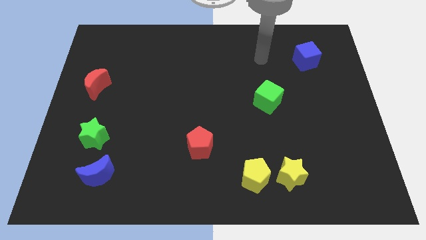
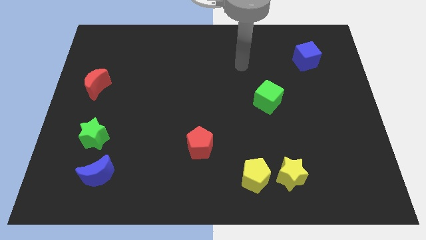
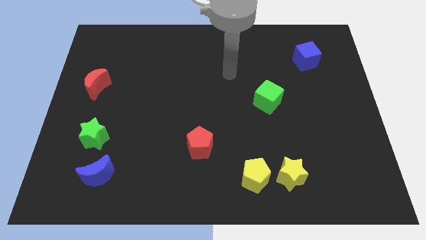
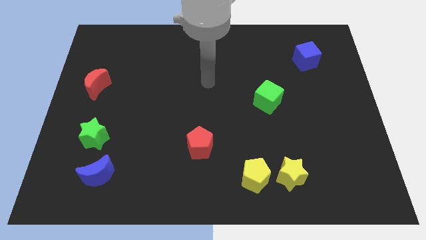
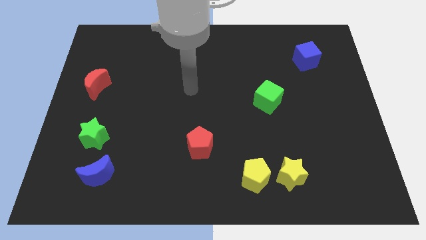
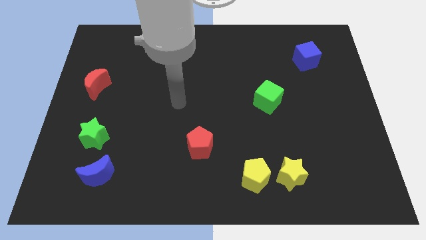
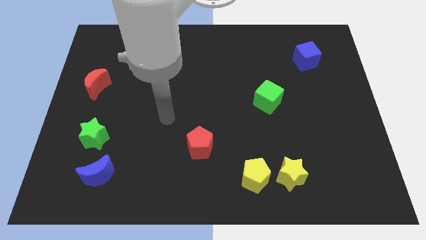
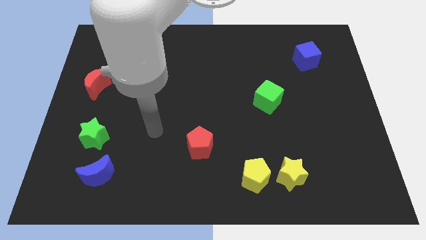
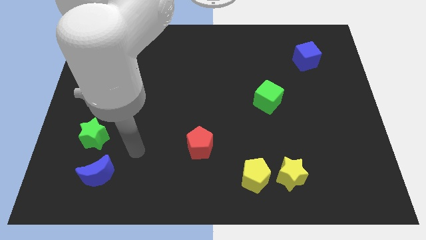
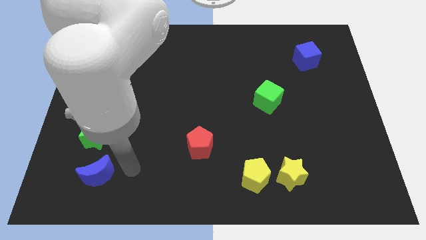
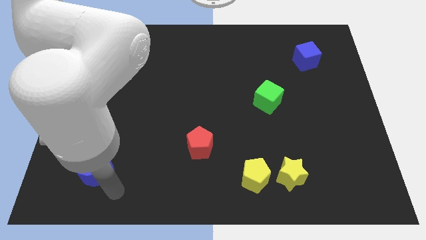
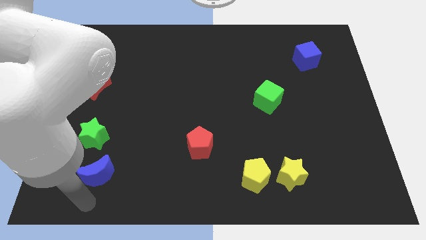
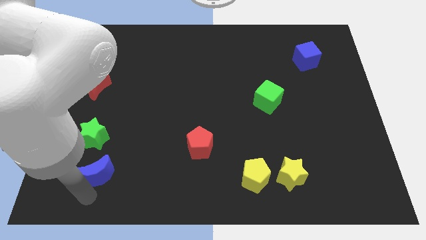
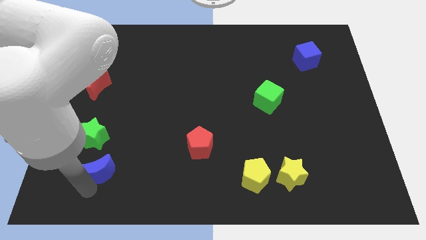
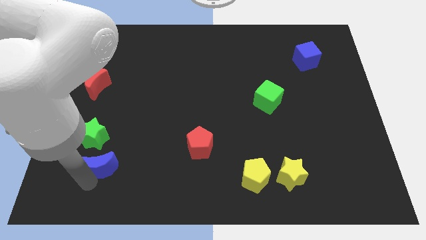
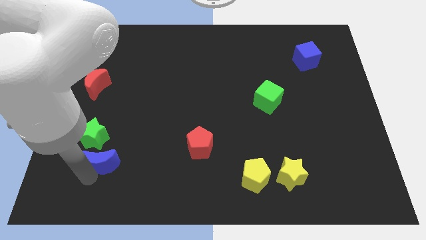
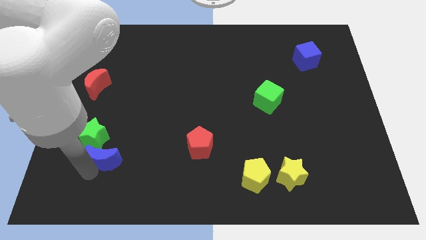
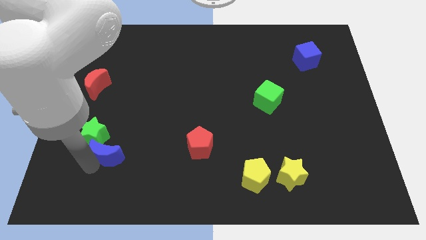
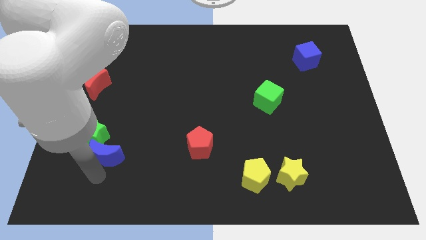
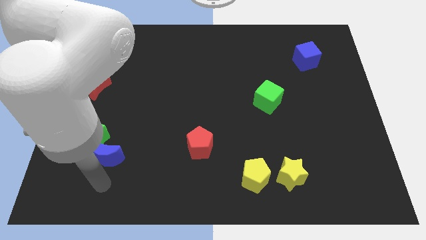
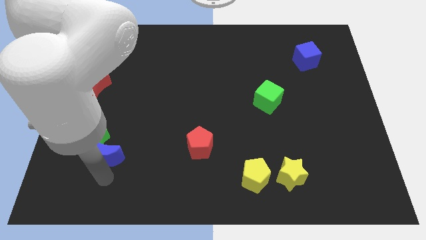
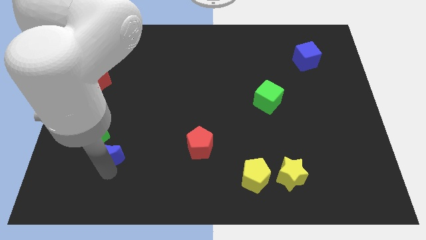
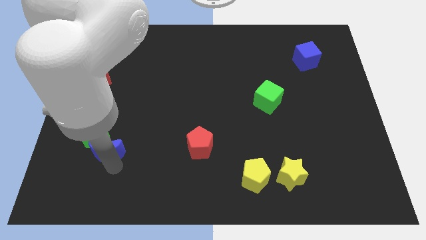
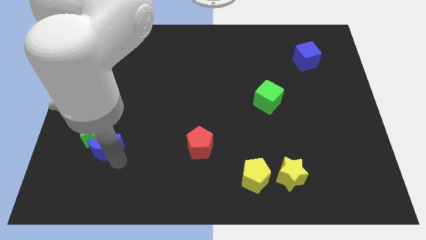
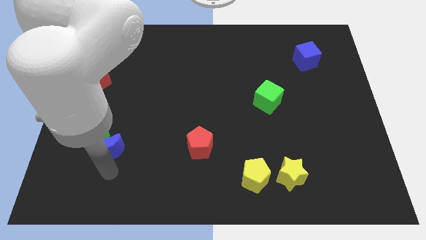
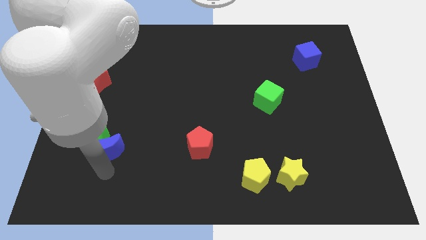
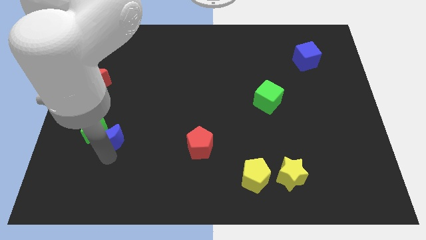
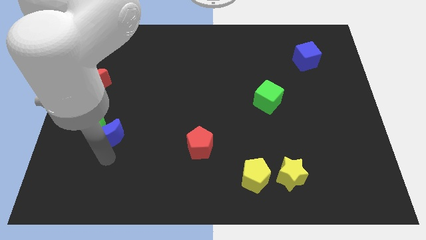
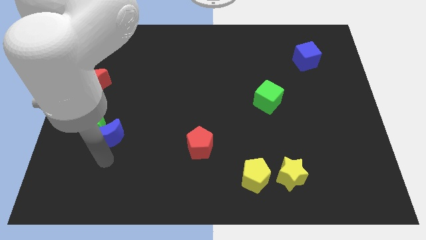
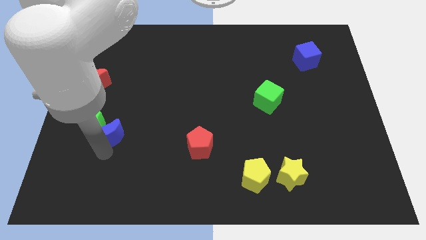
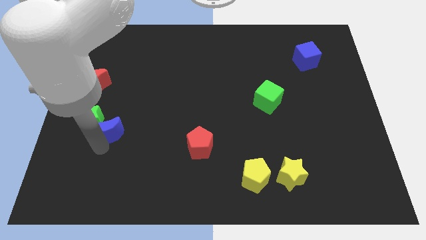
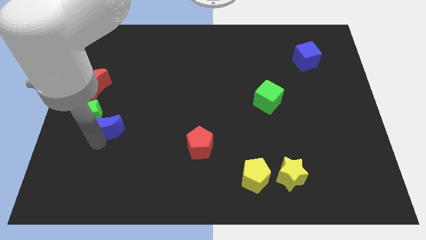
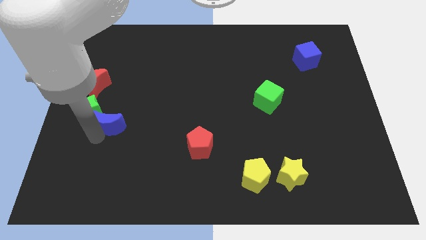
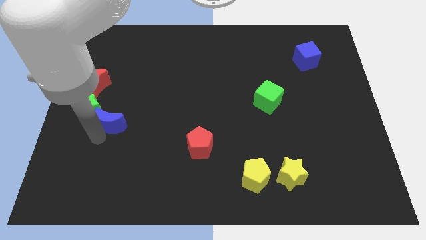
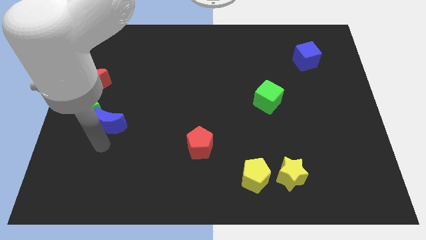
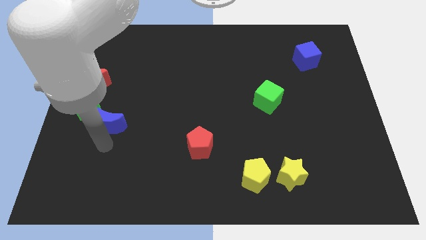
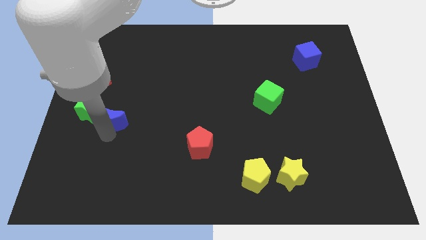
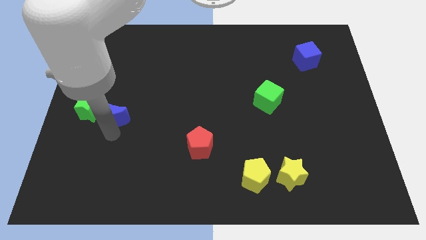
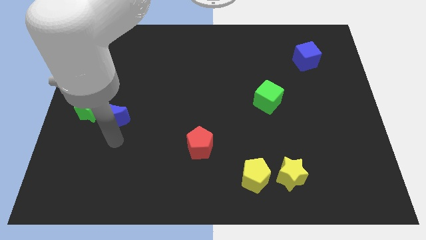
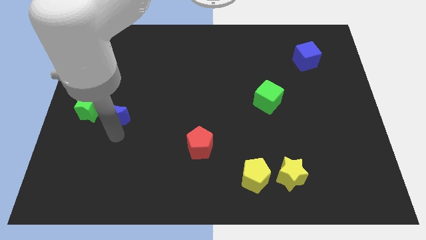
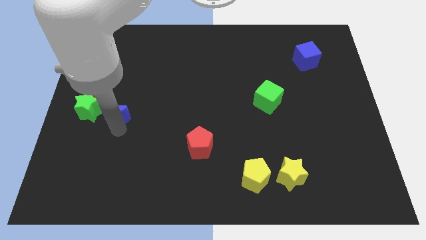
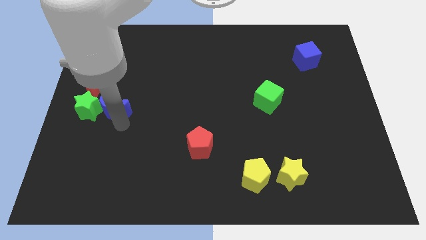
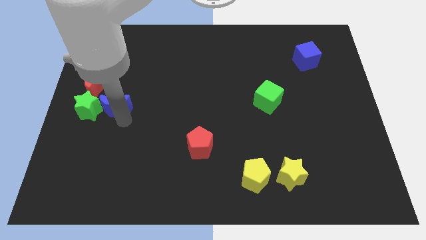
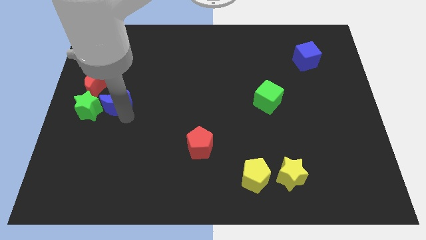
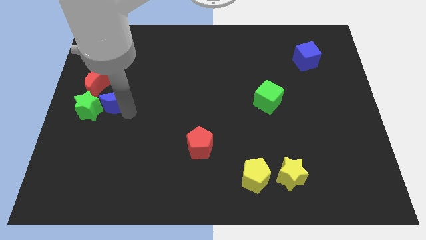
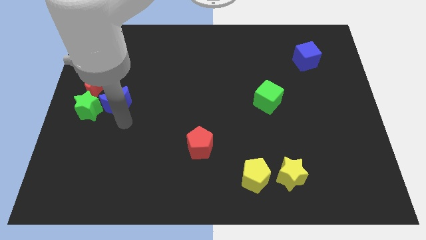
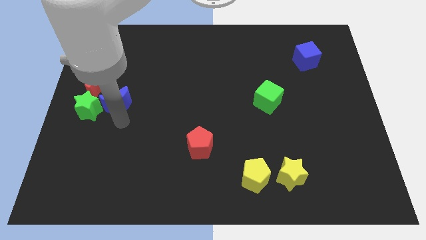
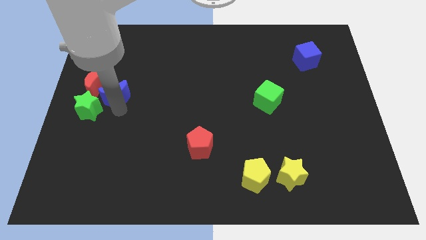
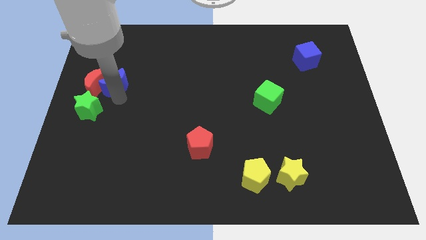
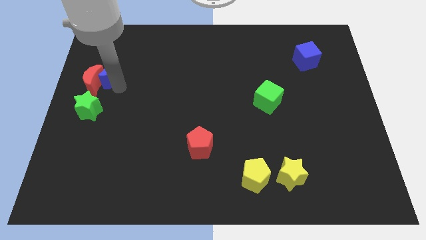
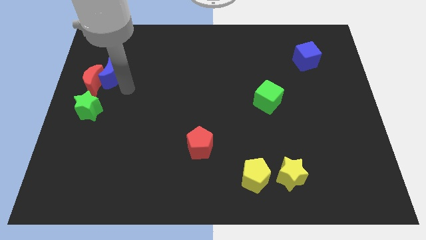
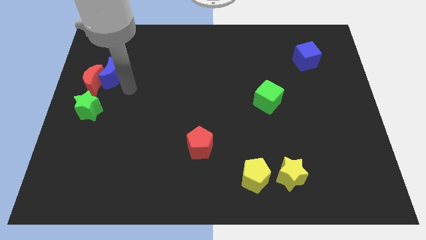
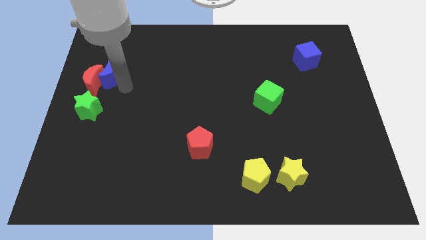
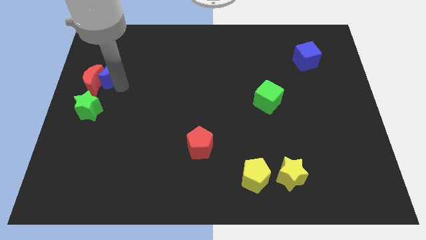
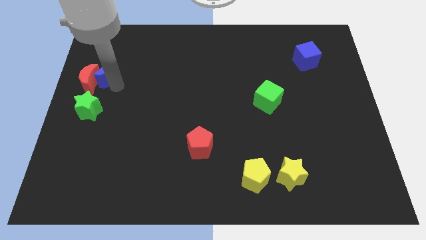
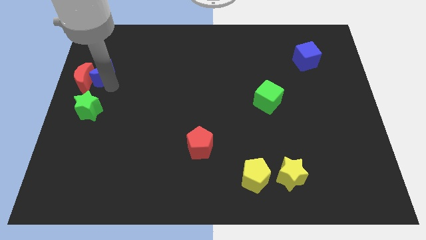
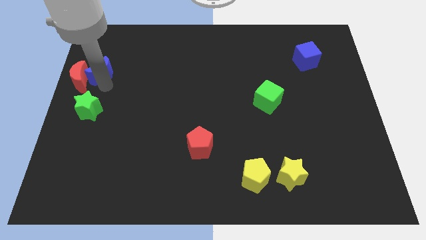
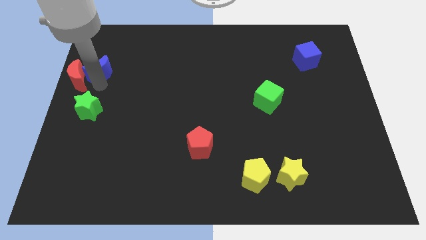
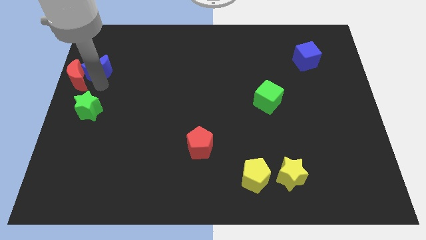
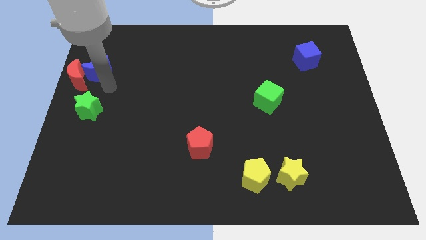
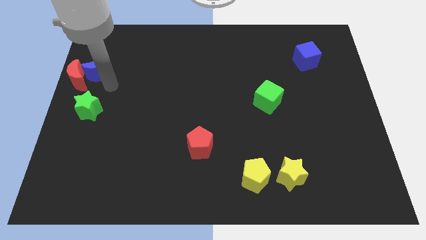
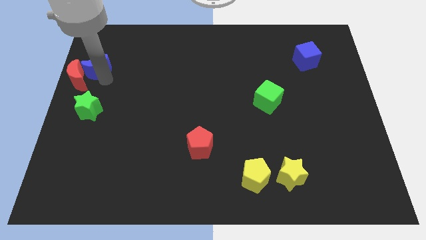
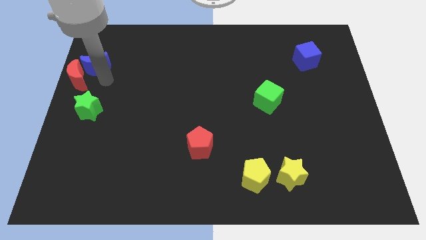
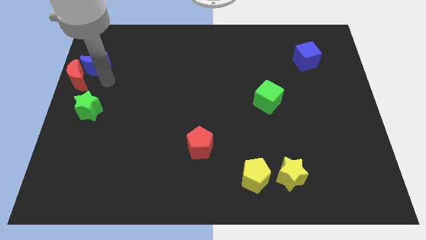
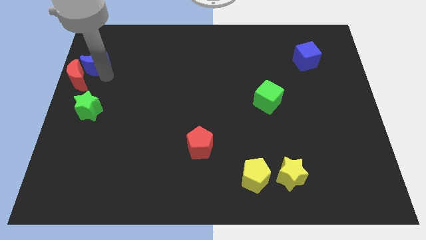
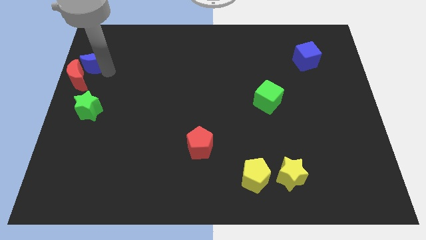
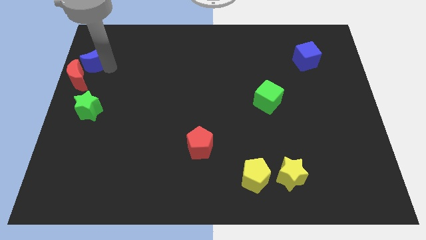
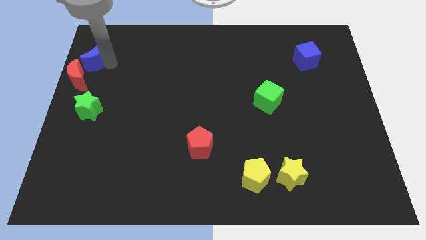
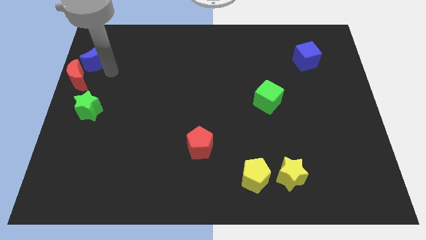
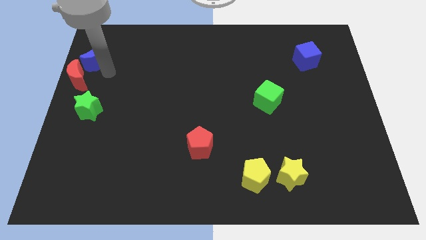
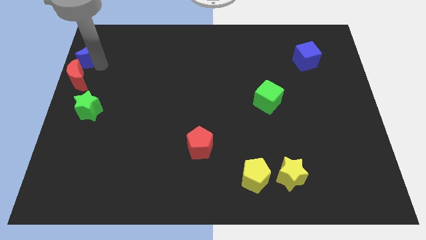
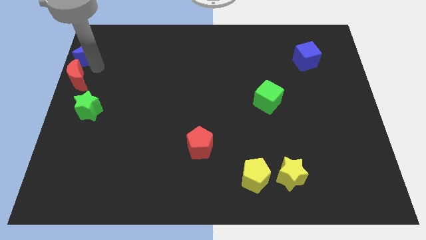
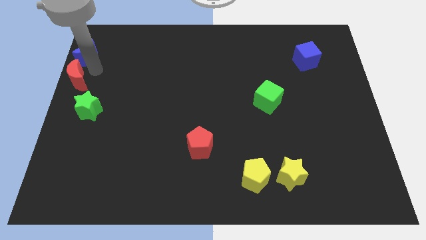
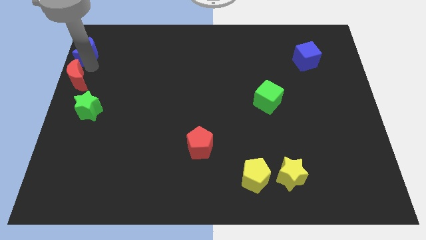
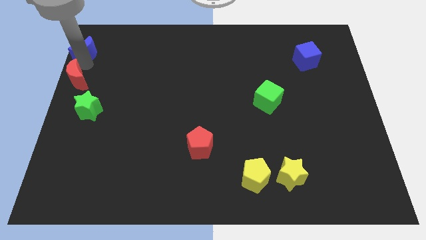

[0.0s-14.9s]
move the blue moon to the top left corner
